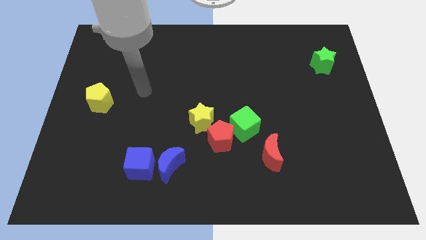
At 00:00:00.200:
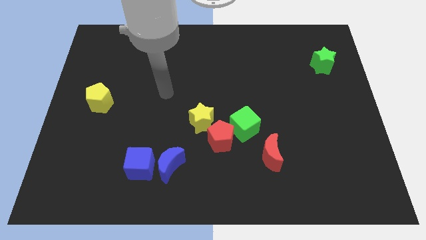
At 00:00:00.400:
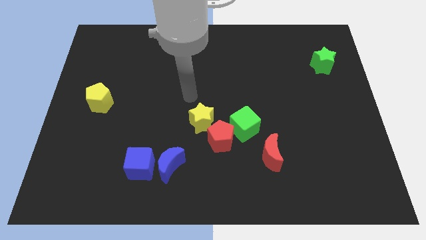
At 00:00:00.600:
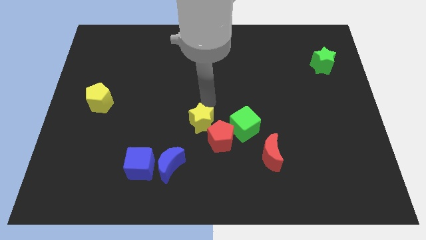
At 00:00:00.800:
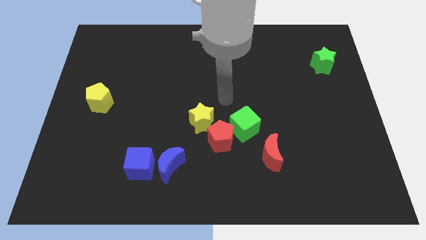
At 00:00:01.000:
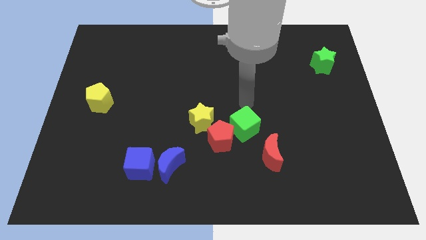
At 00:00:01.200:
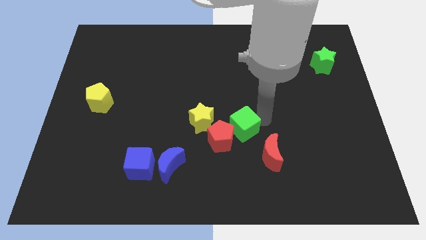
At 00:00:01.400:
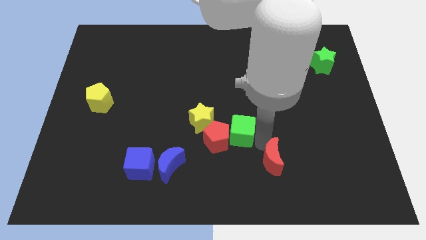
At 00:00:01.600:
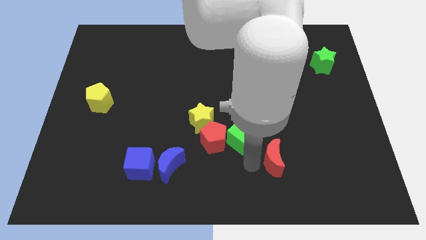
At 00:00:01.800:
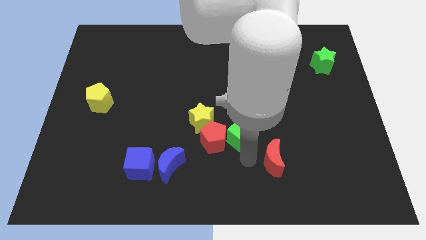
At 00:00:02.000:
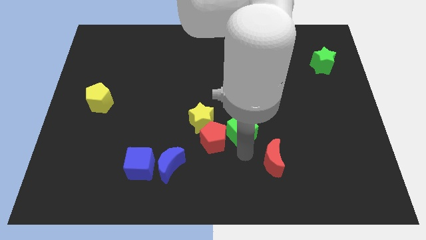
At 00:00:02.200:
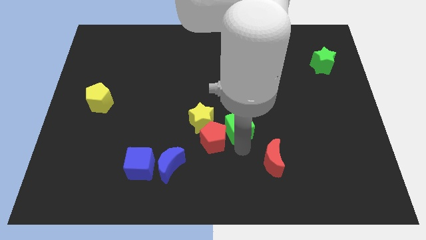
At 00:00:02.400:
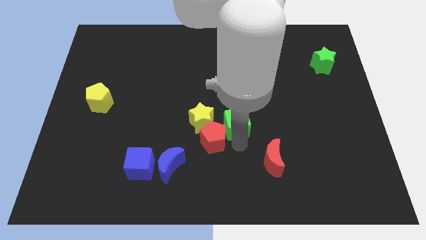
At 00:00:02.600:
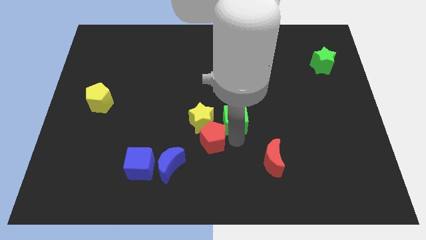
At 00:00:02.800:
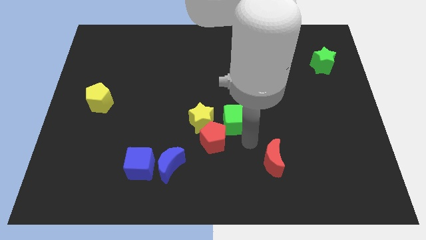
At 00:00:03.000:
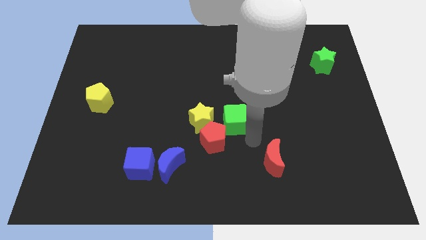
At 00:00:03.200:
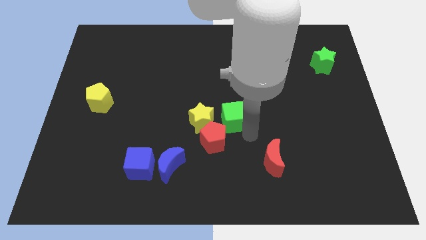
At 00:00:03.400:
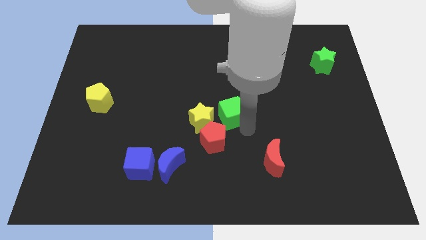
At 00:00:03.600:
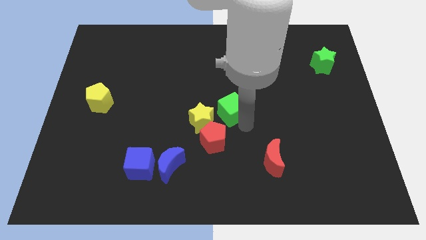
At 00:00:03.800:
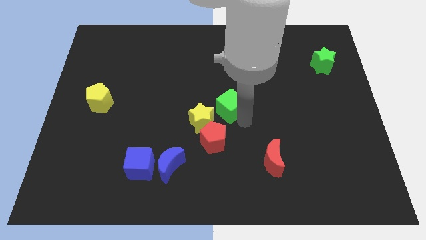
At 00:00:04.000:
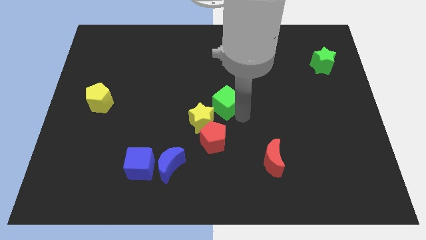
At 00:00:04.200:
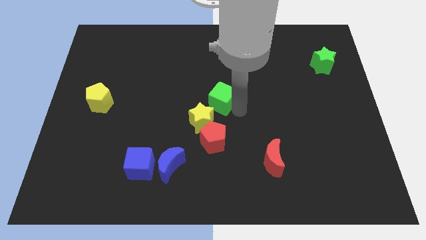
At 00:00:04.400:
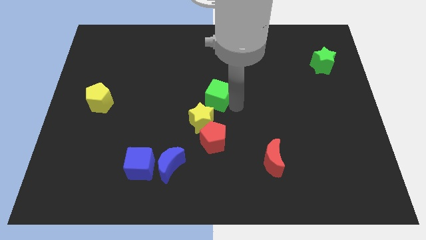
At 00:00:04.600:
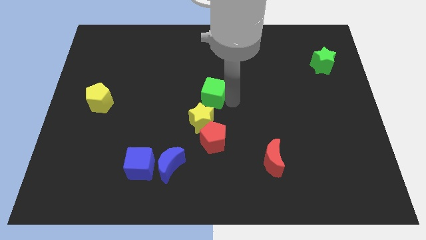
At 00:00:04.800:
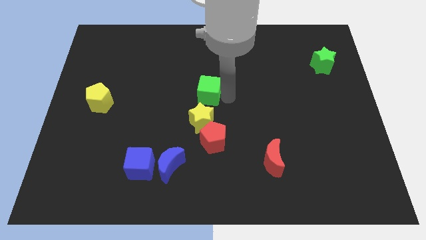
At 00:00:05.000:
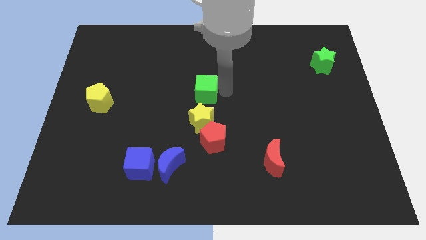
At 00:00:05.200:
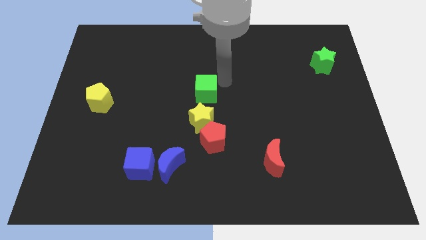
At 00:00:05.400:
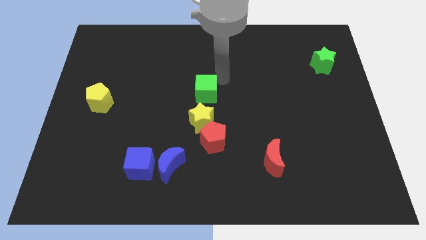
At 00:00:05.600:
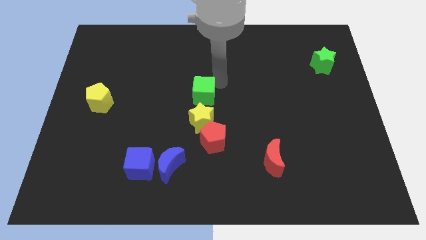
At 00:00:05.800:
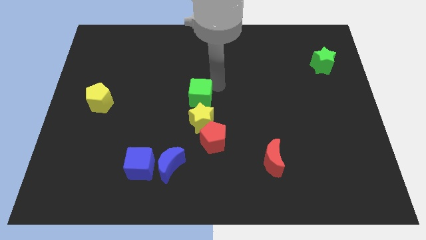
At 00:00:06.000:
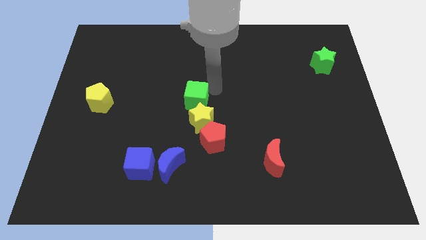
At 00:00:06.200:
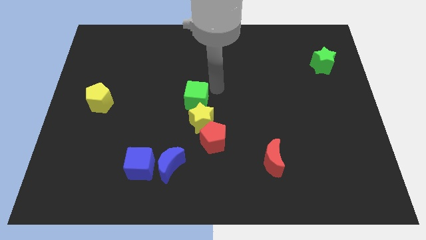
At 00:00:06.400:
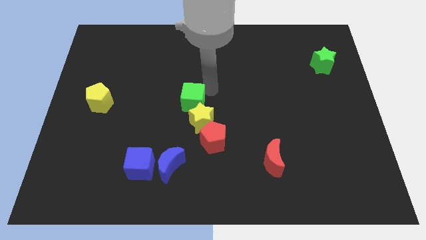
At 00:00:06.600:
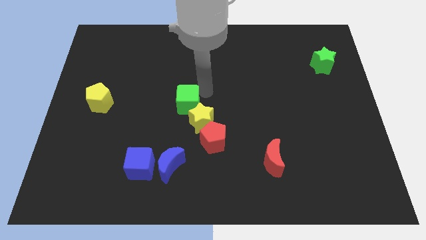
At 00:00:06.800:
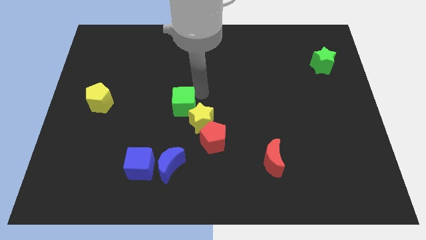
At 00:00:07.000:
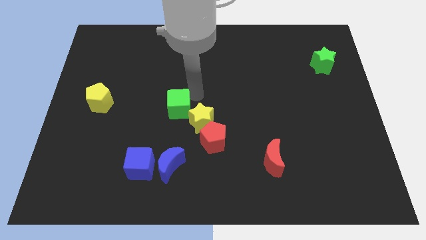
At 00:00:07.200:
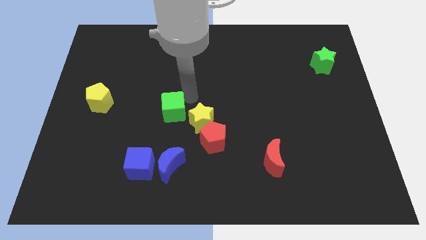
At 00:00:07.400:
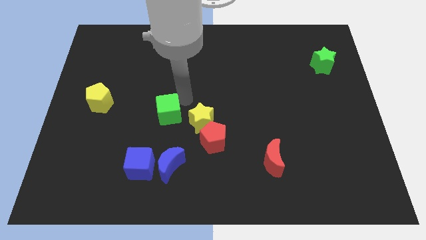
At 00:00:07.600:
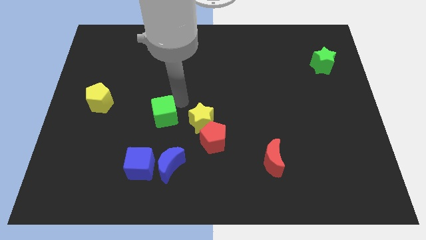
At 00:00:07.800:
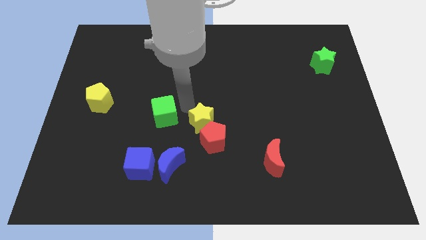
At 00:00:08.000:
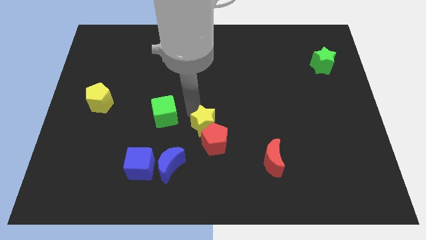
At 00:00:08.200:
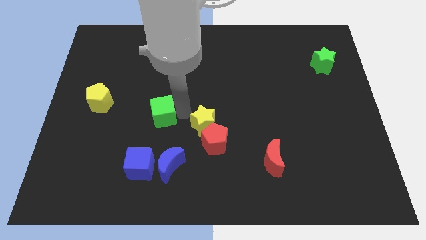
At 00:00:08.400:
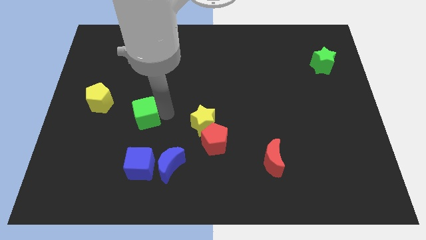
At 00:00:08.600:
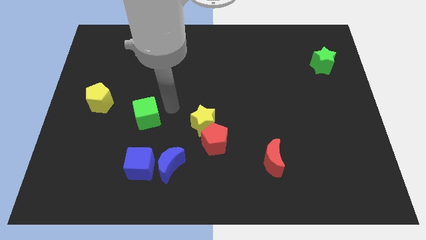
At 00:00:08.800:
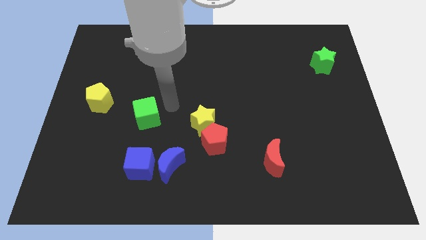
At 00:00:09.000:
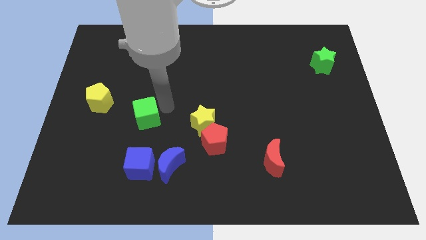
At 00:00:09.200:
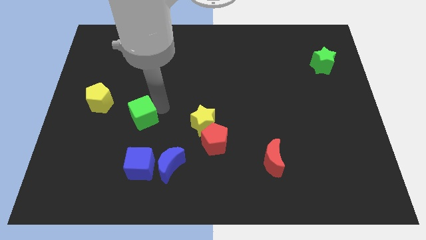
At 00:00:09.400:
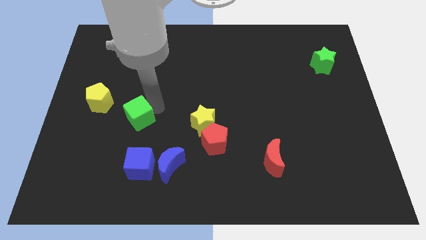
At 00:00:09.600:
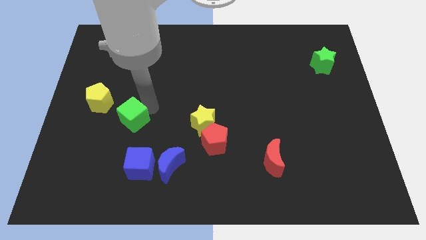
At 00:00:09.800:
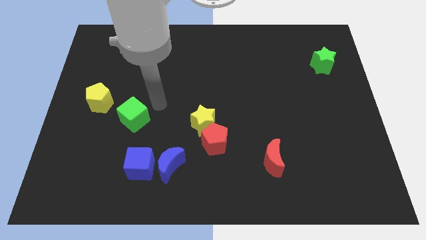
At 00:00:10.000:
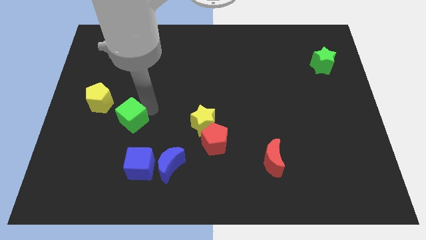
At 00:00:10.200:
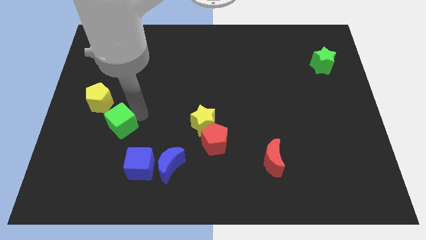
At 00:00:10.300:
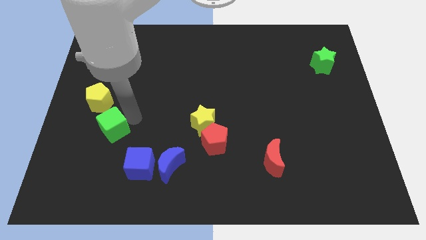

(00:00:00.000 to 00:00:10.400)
push the green cube to the bottom side of the yellow pentagon

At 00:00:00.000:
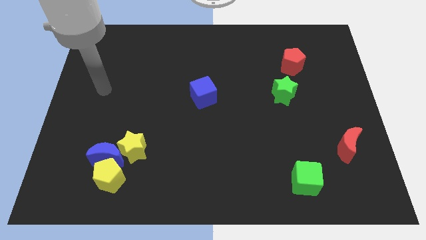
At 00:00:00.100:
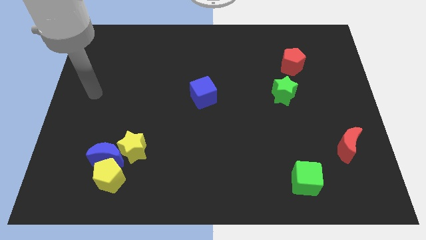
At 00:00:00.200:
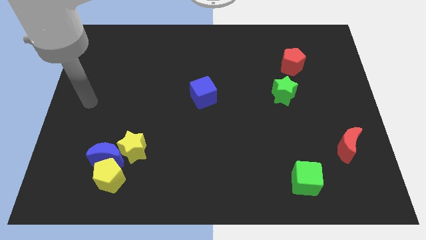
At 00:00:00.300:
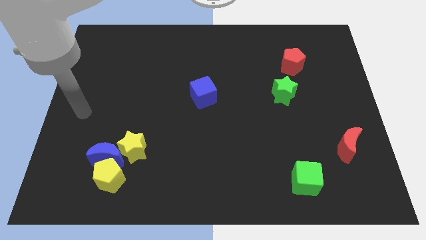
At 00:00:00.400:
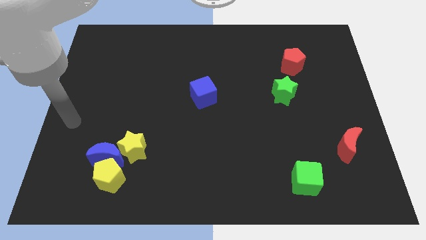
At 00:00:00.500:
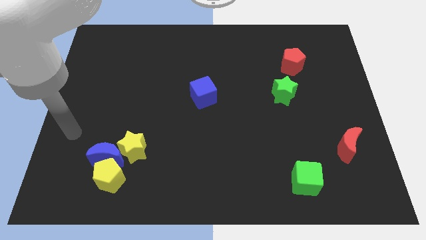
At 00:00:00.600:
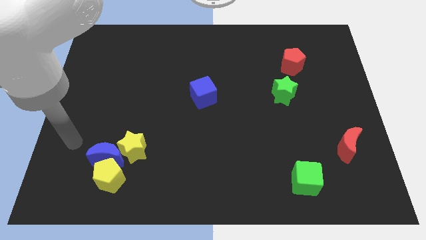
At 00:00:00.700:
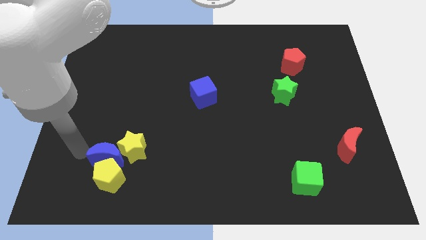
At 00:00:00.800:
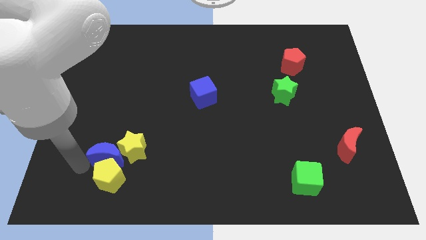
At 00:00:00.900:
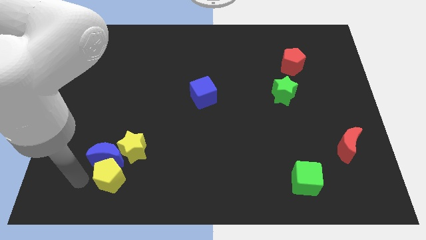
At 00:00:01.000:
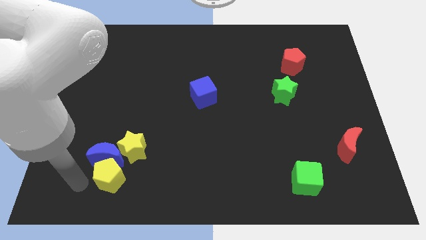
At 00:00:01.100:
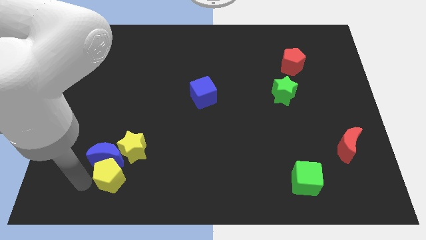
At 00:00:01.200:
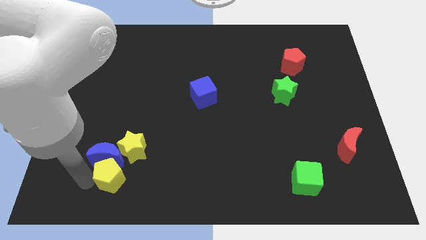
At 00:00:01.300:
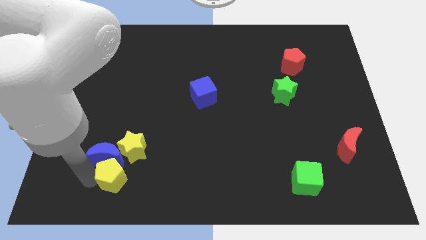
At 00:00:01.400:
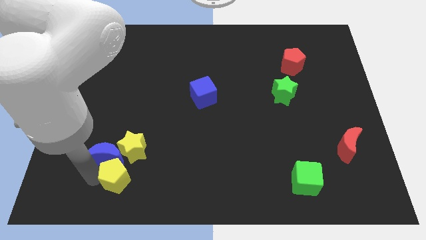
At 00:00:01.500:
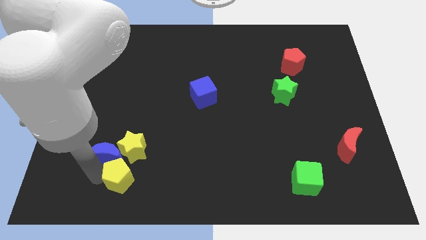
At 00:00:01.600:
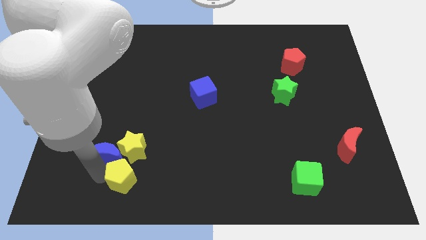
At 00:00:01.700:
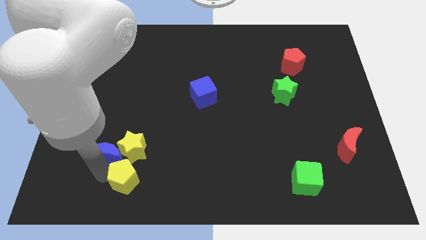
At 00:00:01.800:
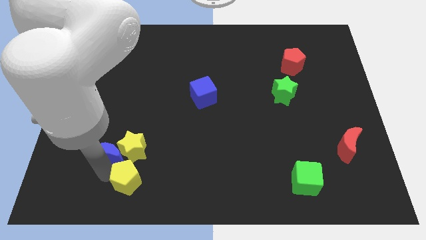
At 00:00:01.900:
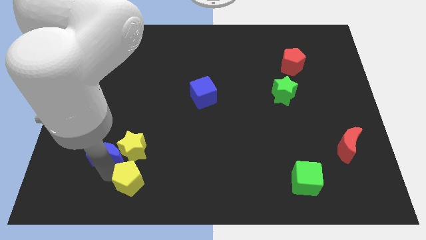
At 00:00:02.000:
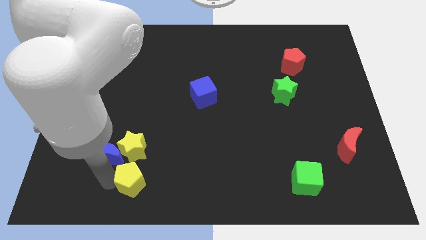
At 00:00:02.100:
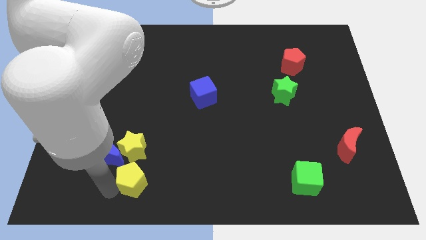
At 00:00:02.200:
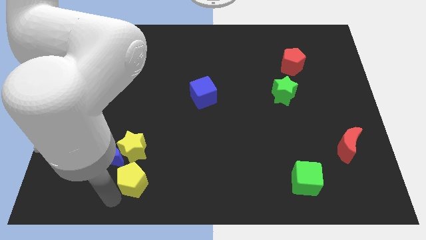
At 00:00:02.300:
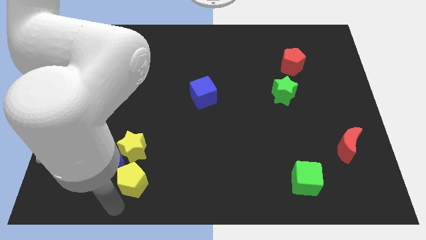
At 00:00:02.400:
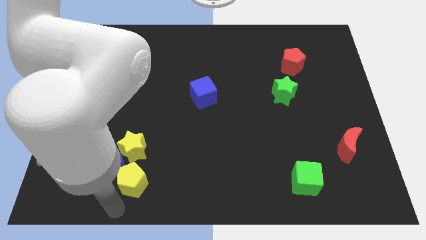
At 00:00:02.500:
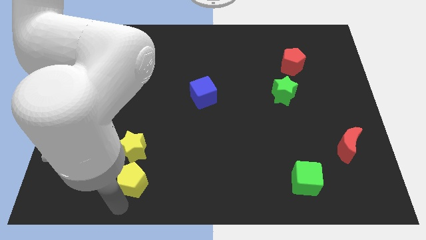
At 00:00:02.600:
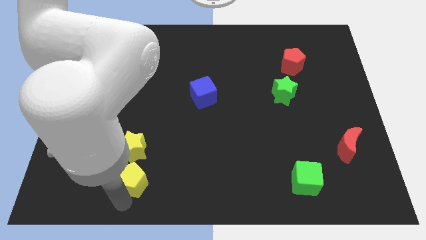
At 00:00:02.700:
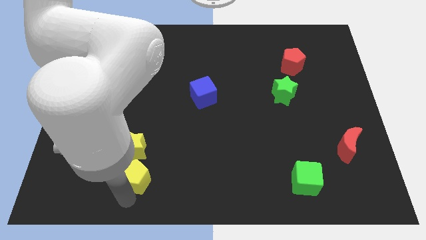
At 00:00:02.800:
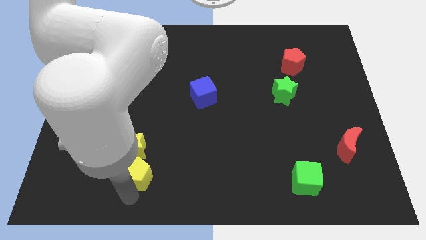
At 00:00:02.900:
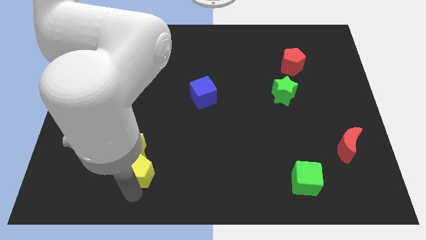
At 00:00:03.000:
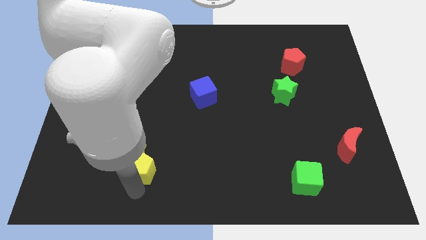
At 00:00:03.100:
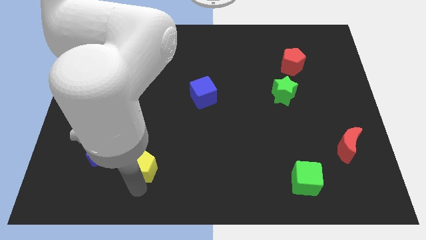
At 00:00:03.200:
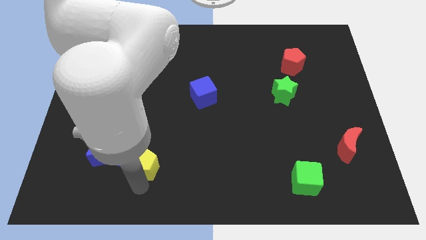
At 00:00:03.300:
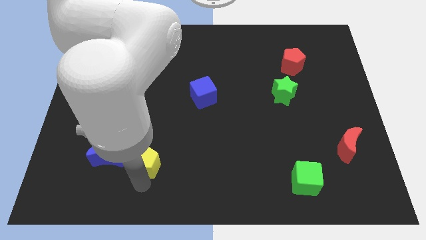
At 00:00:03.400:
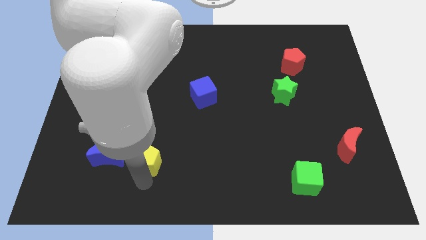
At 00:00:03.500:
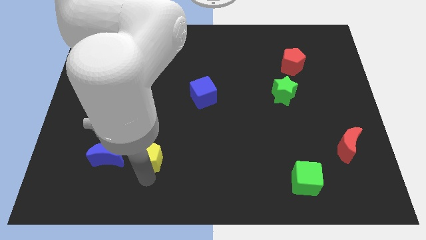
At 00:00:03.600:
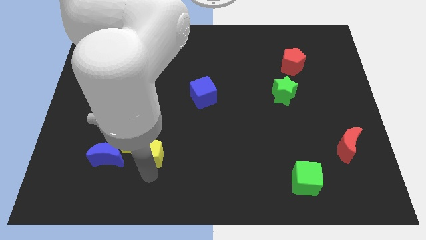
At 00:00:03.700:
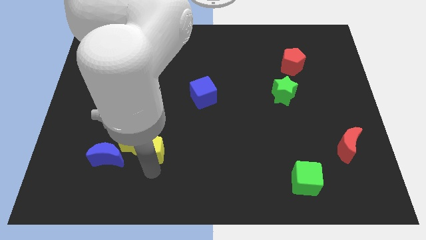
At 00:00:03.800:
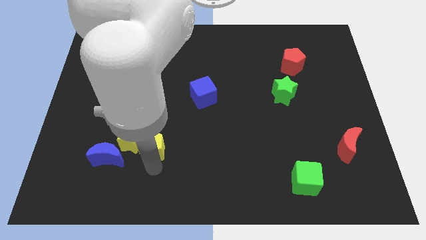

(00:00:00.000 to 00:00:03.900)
move the yellow pentagon to the top right of the yellow star
